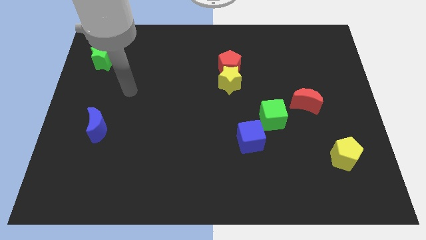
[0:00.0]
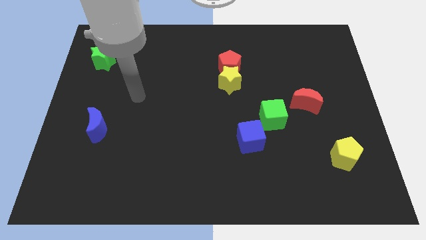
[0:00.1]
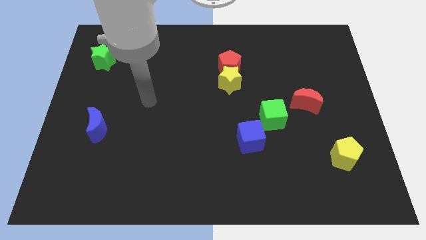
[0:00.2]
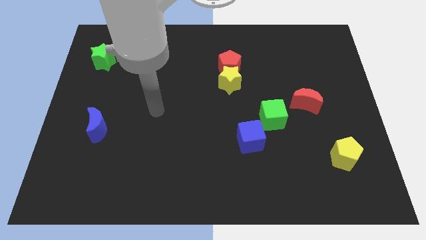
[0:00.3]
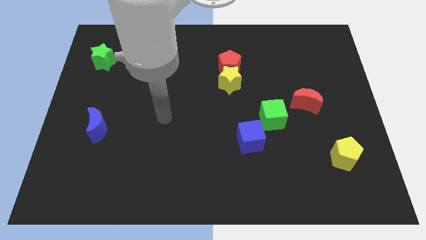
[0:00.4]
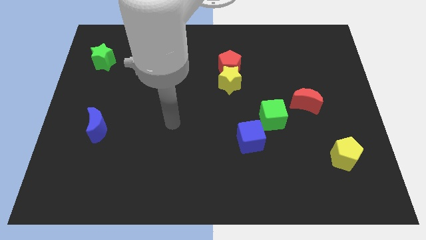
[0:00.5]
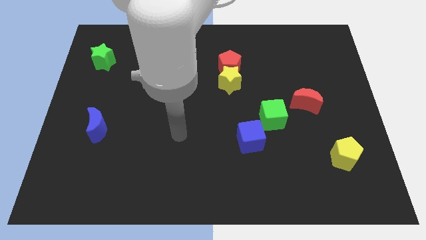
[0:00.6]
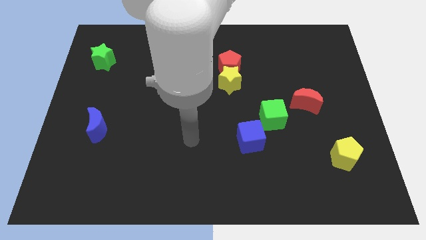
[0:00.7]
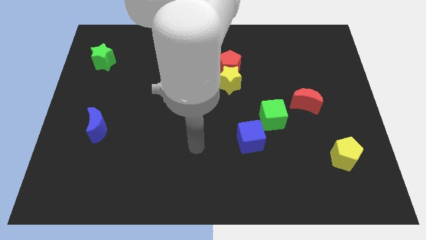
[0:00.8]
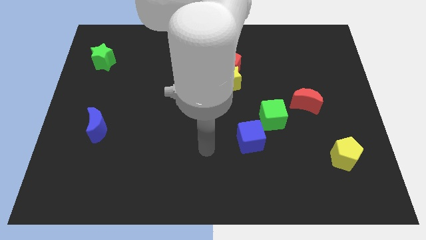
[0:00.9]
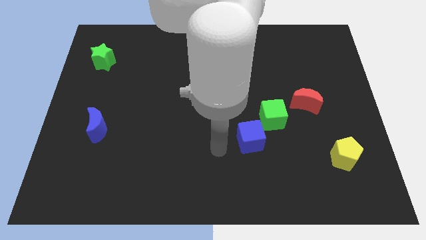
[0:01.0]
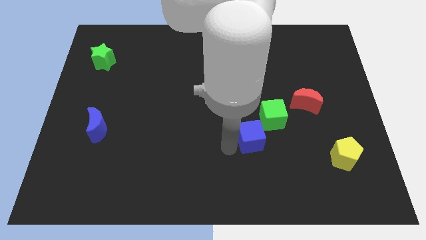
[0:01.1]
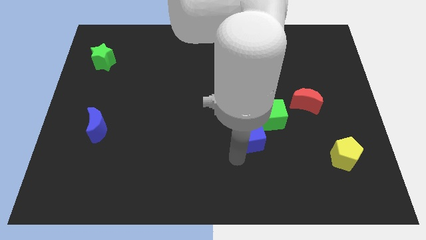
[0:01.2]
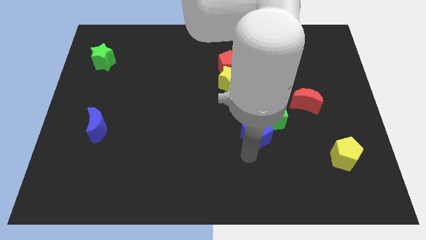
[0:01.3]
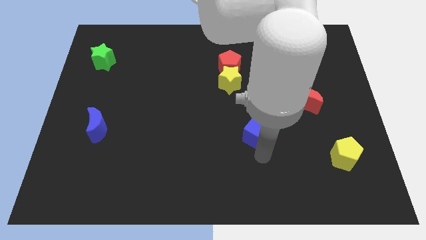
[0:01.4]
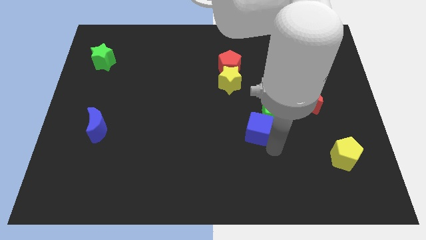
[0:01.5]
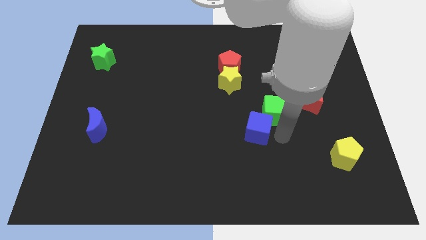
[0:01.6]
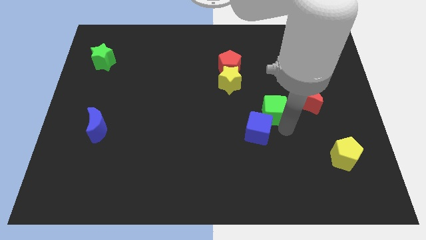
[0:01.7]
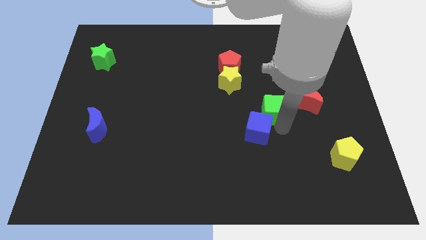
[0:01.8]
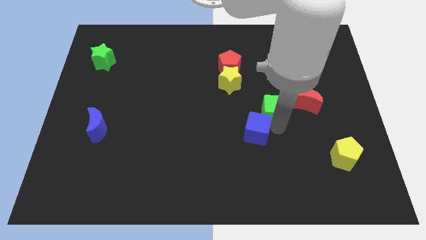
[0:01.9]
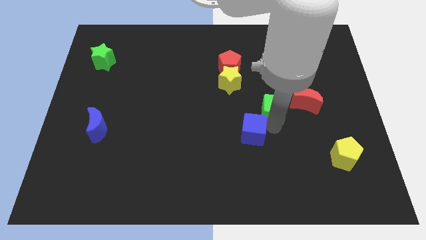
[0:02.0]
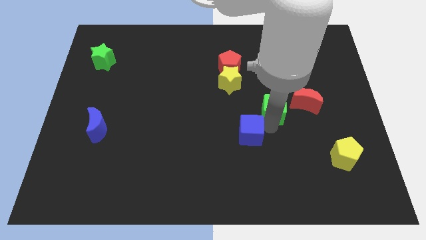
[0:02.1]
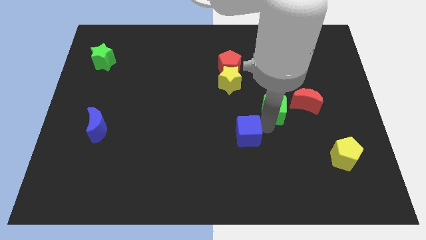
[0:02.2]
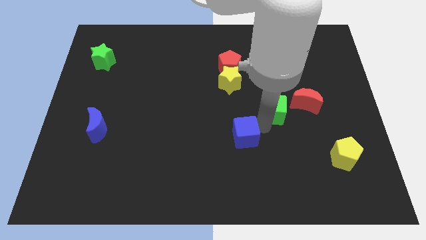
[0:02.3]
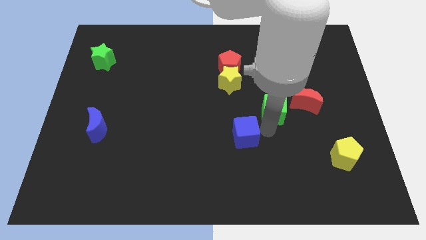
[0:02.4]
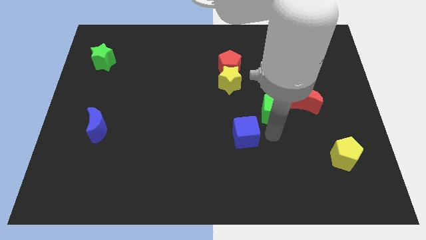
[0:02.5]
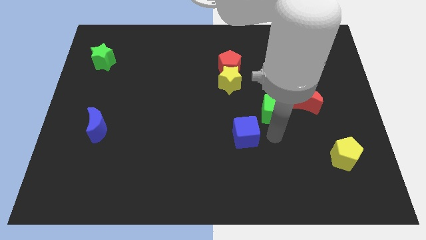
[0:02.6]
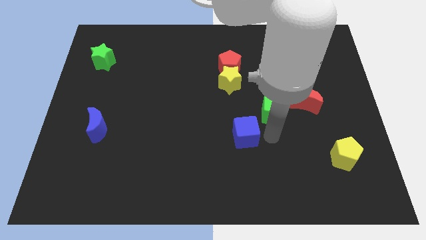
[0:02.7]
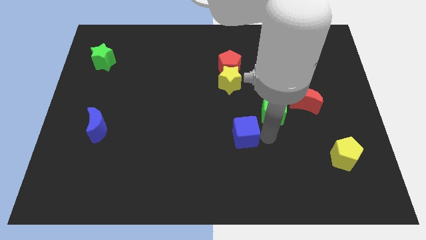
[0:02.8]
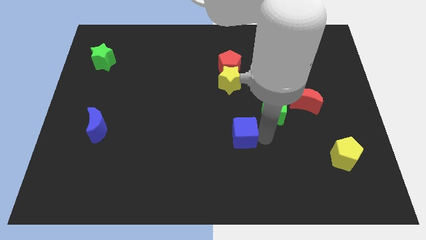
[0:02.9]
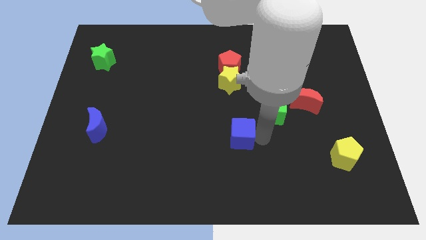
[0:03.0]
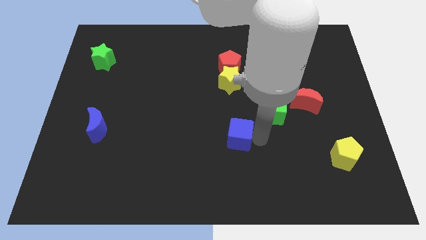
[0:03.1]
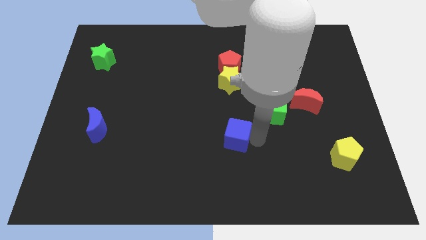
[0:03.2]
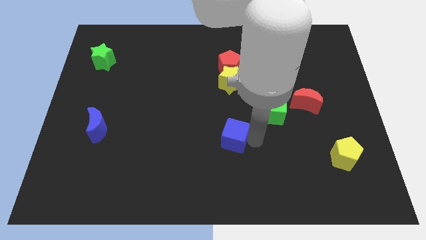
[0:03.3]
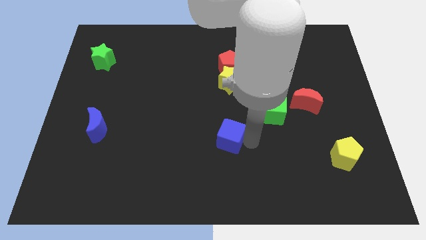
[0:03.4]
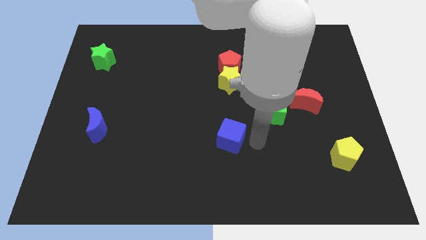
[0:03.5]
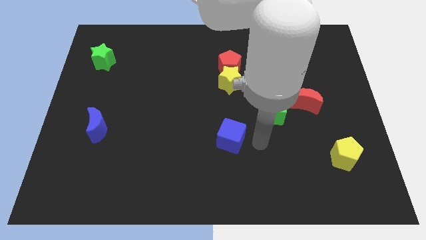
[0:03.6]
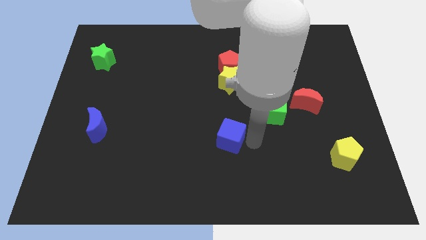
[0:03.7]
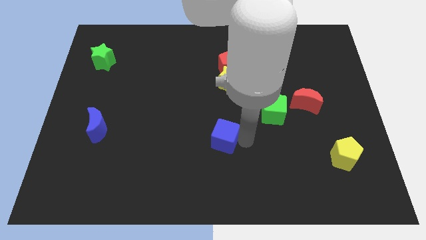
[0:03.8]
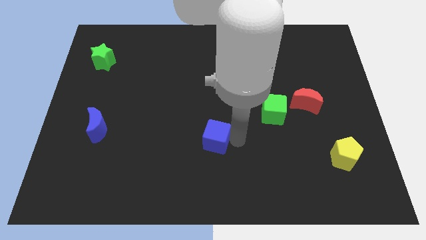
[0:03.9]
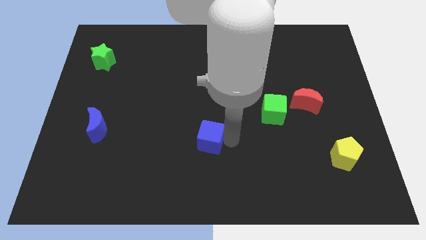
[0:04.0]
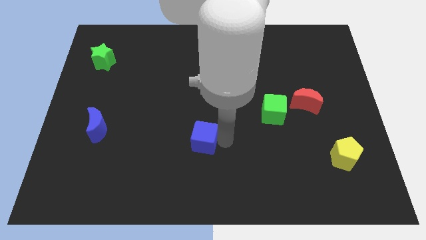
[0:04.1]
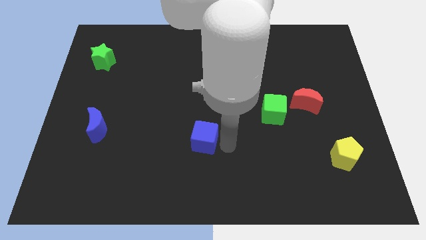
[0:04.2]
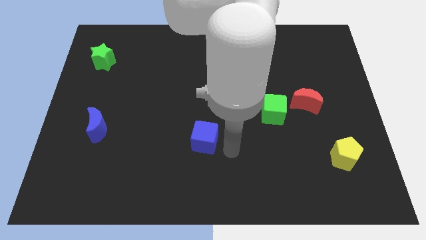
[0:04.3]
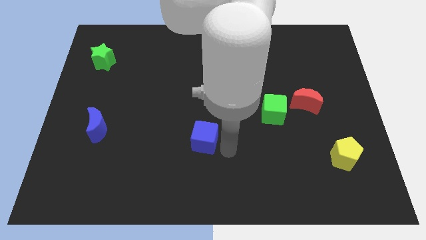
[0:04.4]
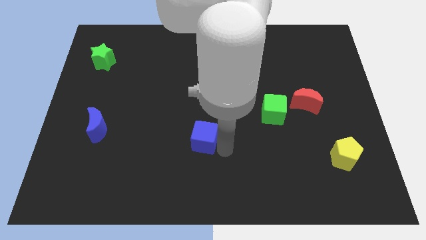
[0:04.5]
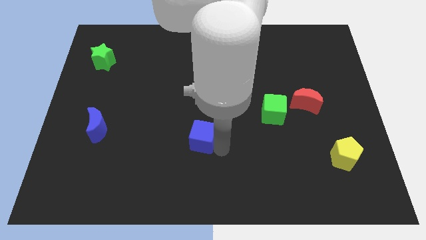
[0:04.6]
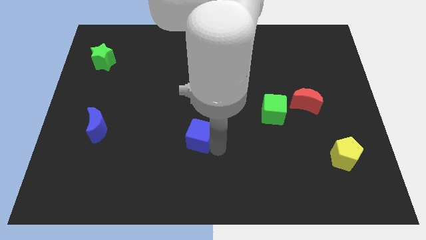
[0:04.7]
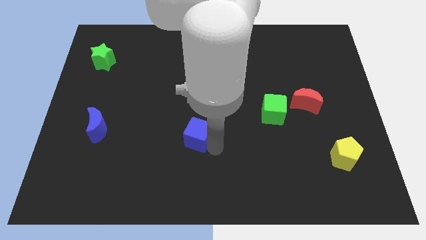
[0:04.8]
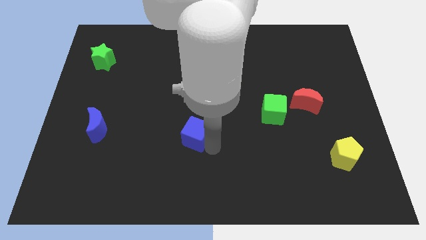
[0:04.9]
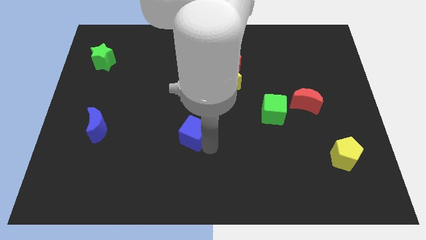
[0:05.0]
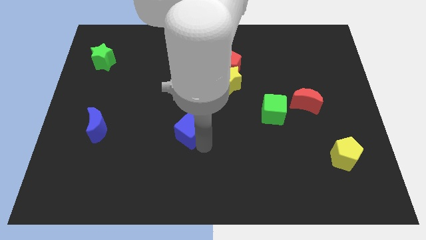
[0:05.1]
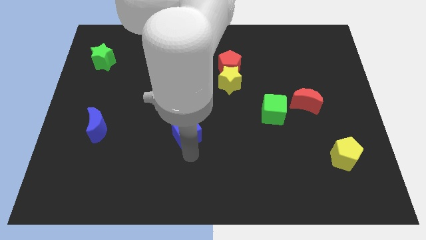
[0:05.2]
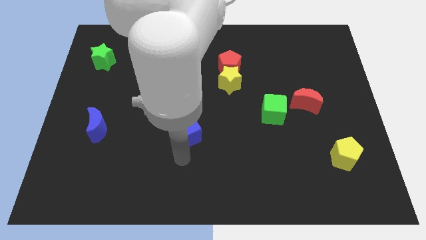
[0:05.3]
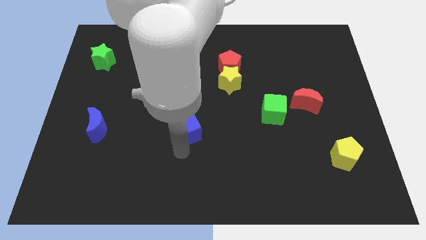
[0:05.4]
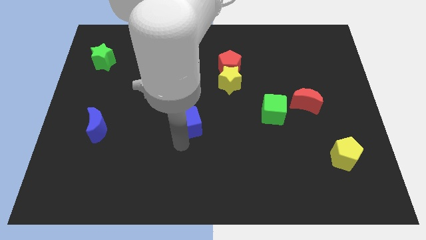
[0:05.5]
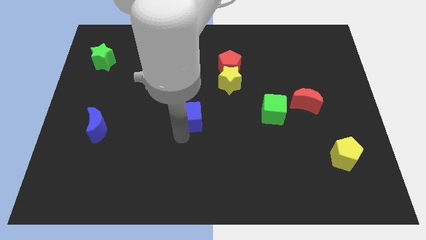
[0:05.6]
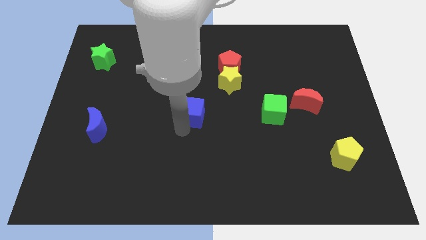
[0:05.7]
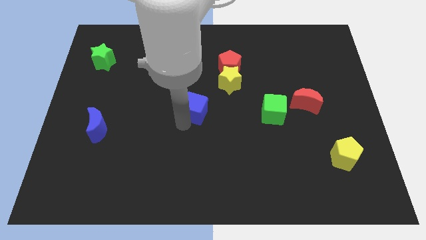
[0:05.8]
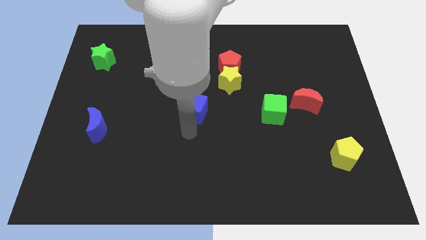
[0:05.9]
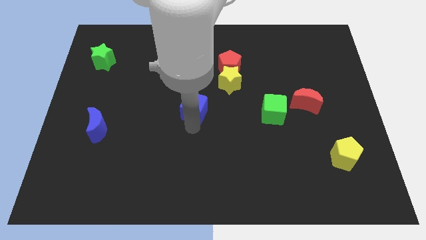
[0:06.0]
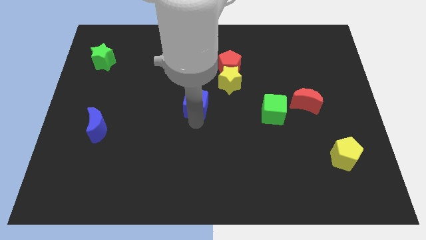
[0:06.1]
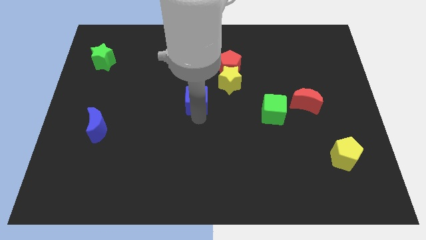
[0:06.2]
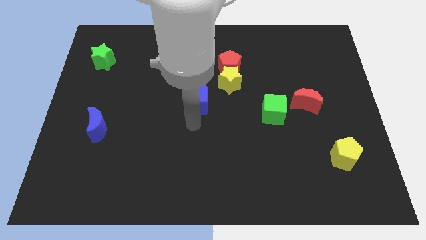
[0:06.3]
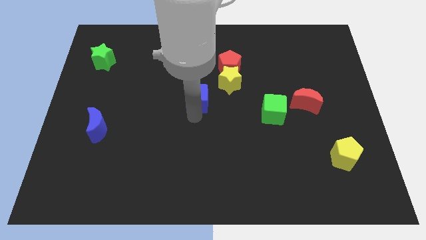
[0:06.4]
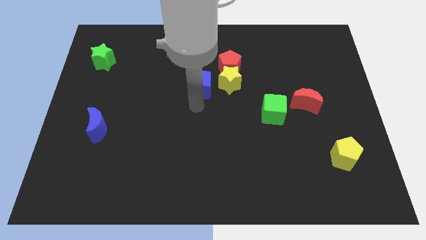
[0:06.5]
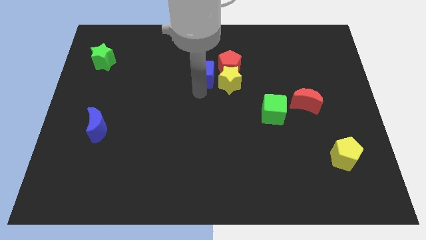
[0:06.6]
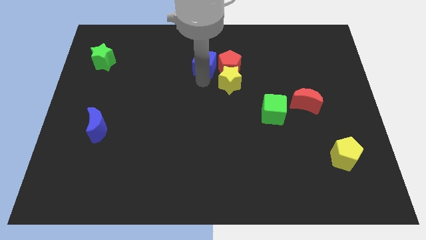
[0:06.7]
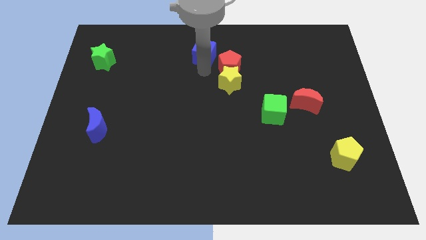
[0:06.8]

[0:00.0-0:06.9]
move the blue cube to the top
